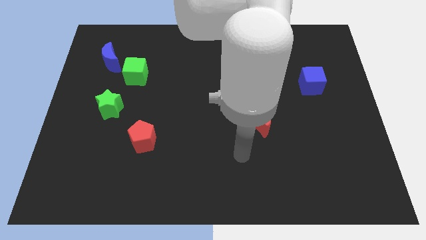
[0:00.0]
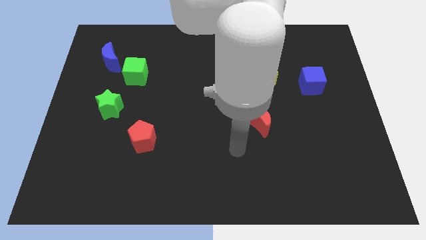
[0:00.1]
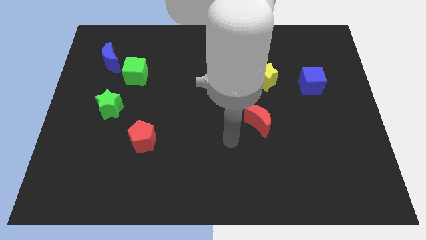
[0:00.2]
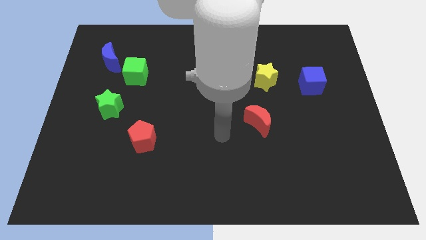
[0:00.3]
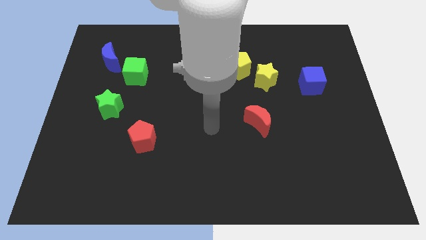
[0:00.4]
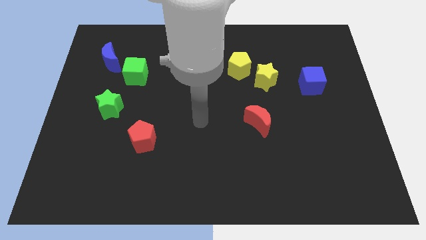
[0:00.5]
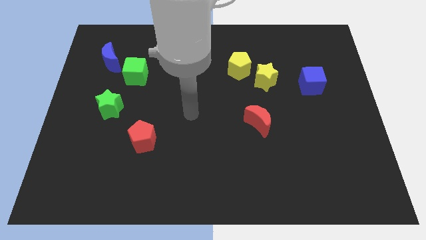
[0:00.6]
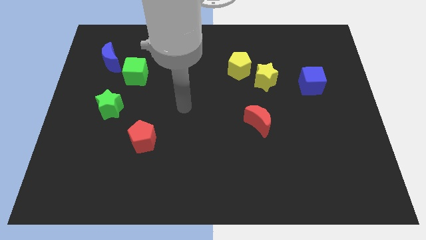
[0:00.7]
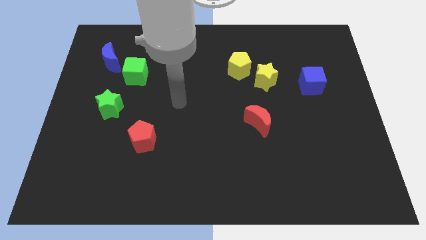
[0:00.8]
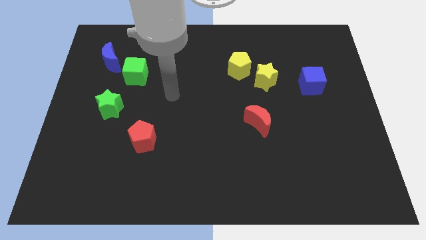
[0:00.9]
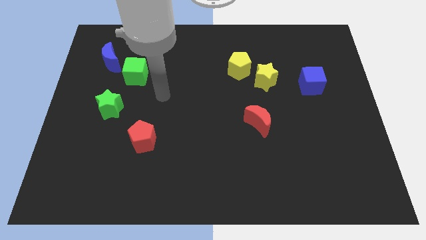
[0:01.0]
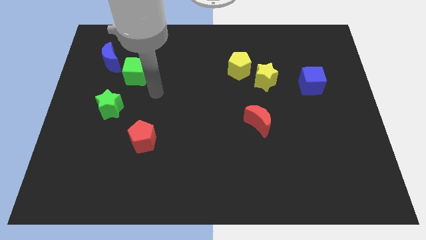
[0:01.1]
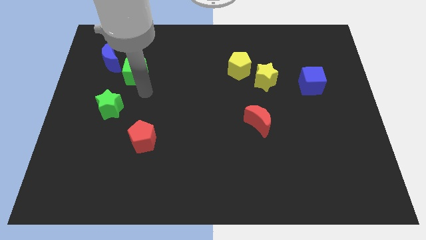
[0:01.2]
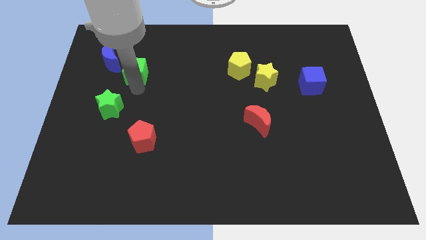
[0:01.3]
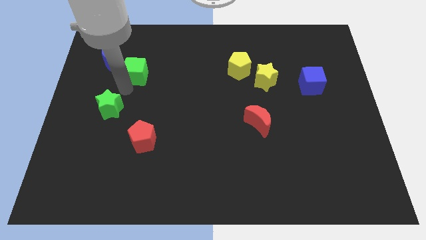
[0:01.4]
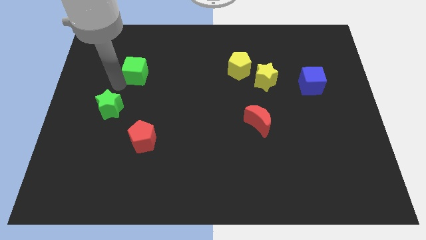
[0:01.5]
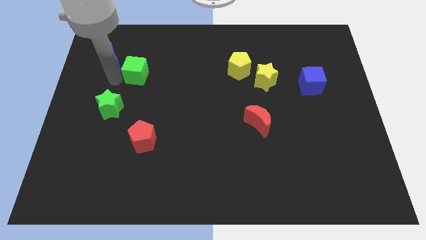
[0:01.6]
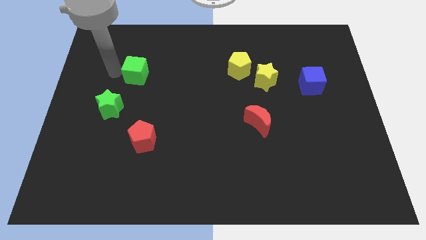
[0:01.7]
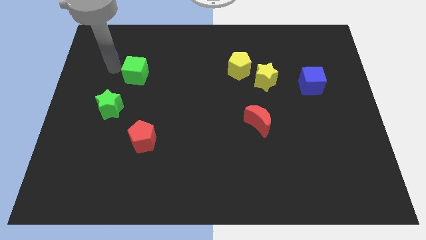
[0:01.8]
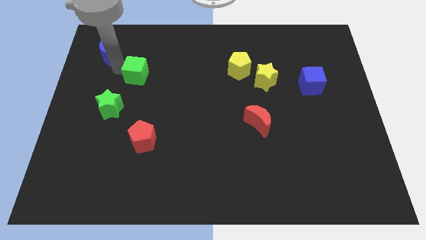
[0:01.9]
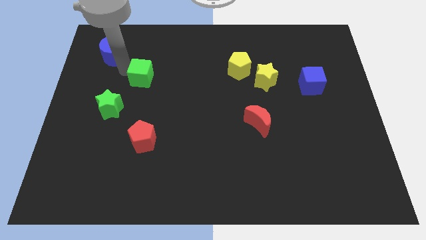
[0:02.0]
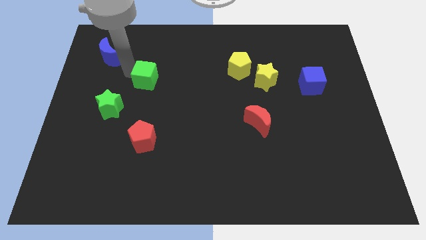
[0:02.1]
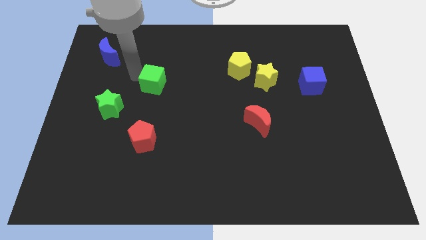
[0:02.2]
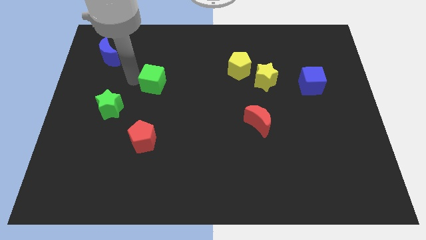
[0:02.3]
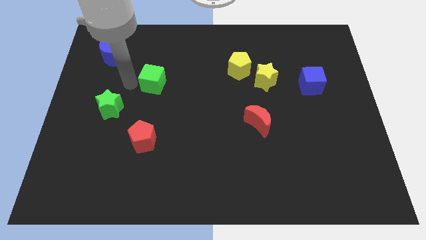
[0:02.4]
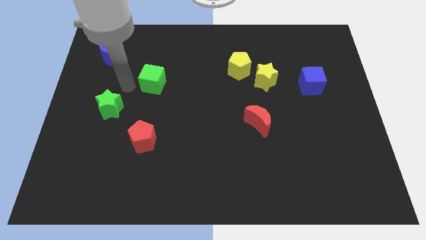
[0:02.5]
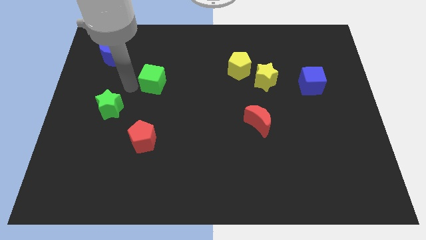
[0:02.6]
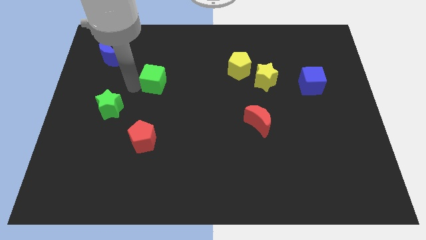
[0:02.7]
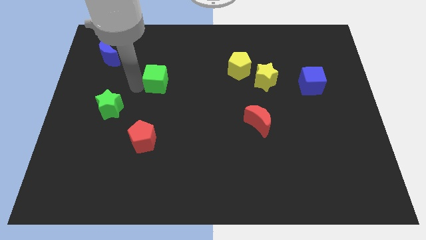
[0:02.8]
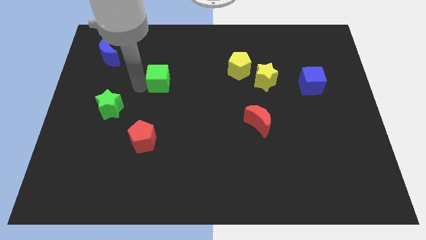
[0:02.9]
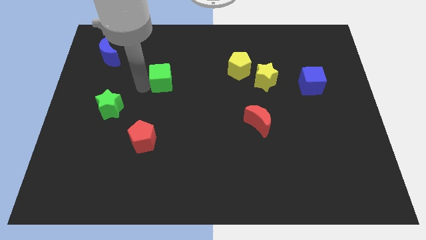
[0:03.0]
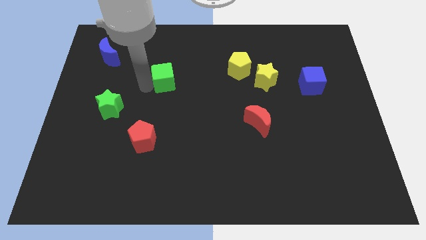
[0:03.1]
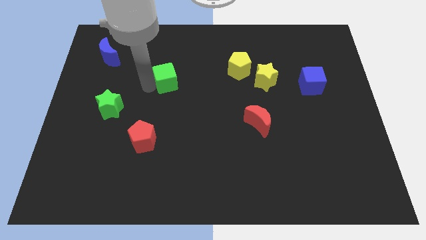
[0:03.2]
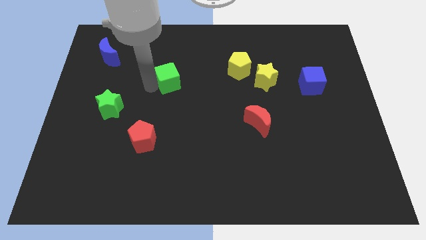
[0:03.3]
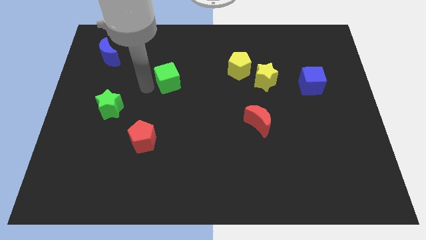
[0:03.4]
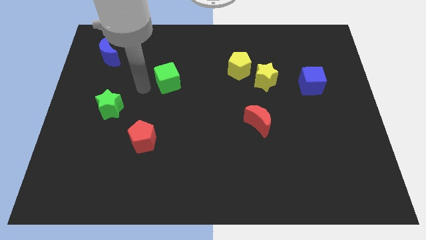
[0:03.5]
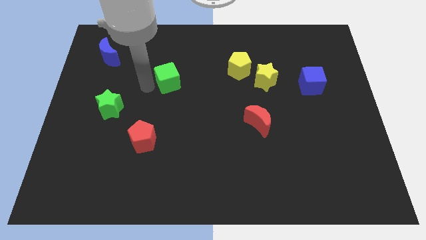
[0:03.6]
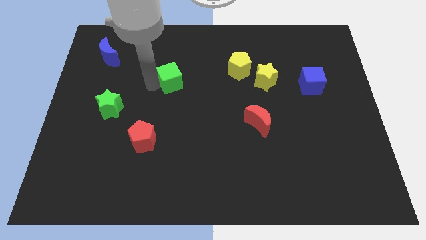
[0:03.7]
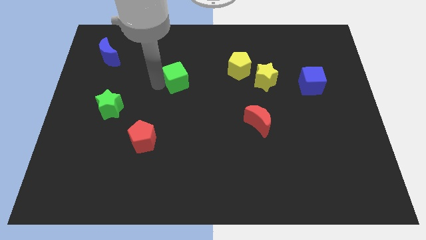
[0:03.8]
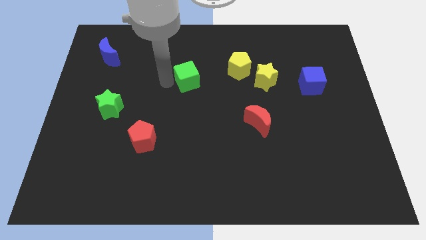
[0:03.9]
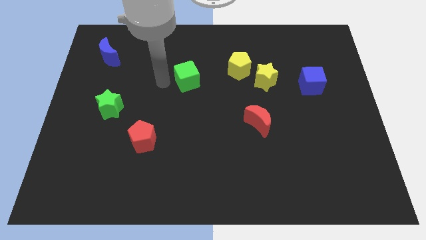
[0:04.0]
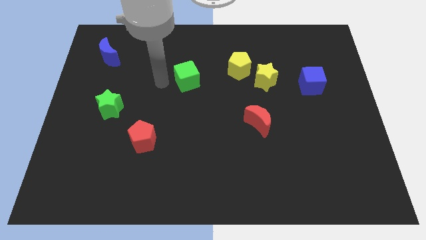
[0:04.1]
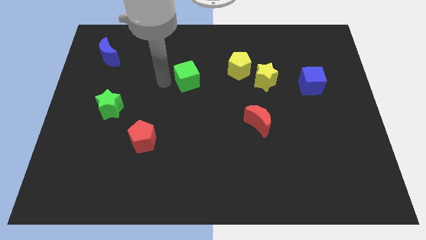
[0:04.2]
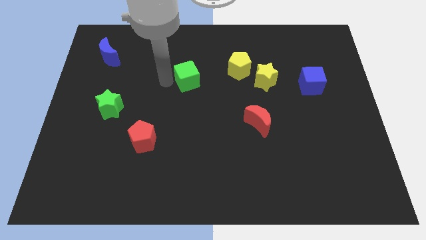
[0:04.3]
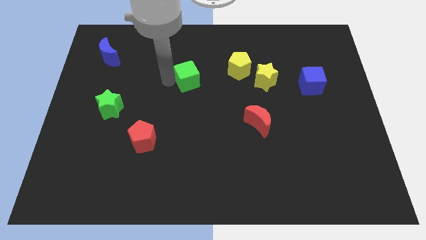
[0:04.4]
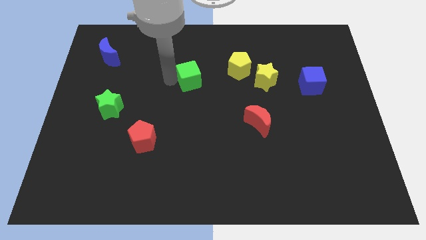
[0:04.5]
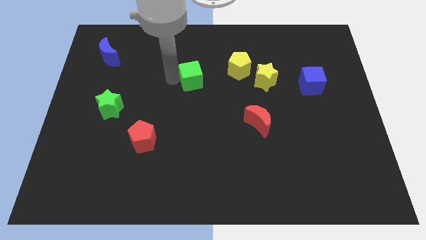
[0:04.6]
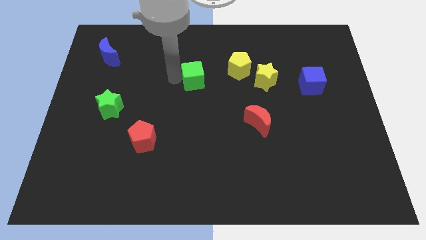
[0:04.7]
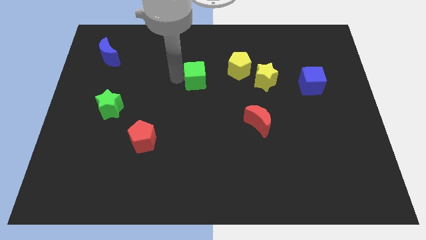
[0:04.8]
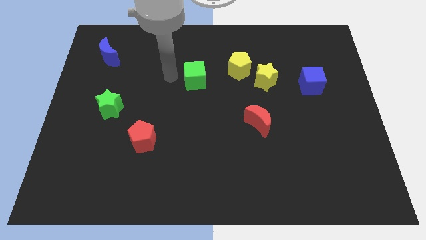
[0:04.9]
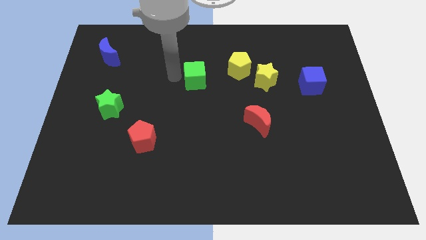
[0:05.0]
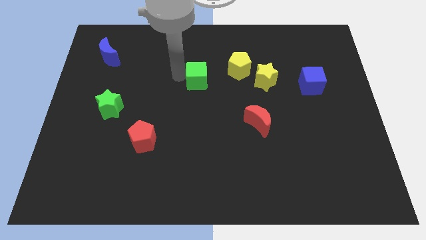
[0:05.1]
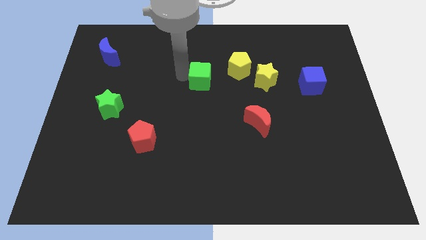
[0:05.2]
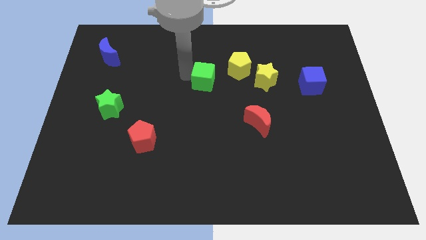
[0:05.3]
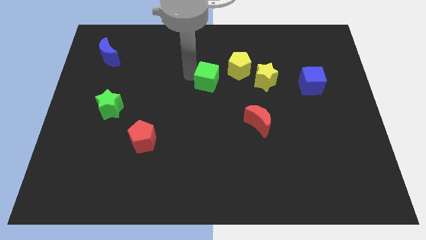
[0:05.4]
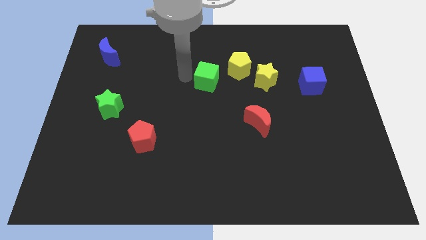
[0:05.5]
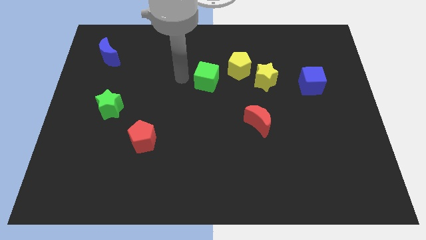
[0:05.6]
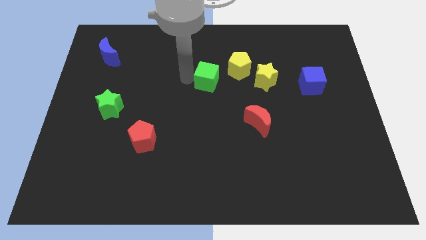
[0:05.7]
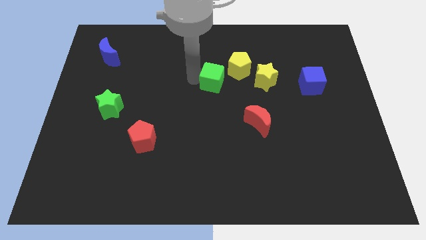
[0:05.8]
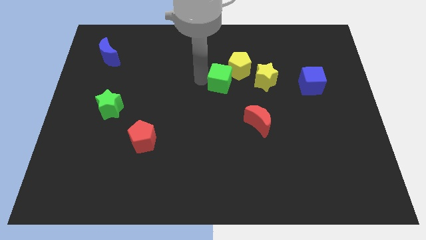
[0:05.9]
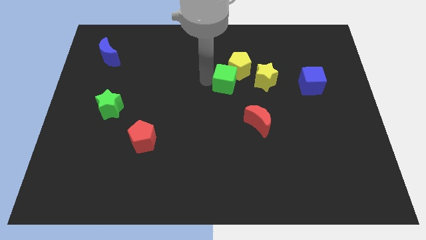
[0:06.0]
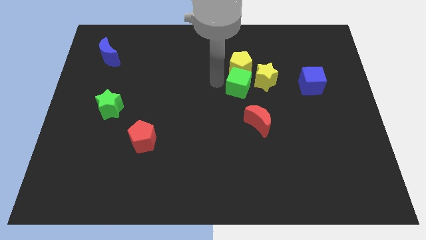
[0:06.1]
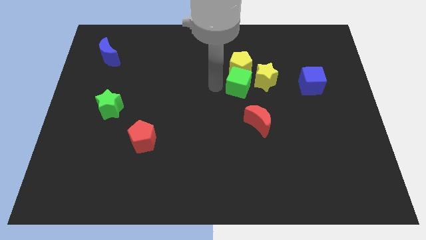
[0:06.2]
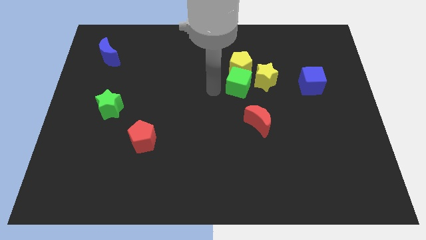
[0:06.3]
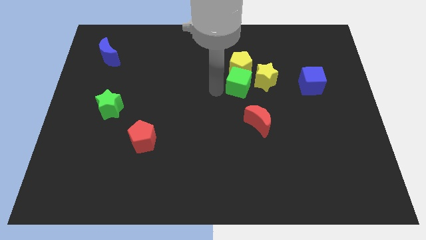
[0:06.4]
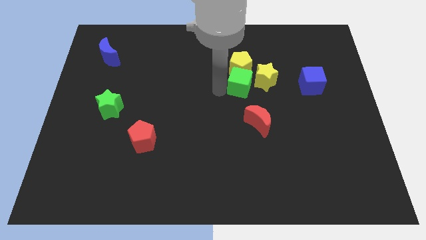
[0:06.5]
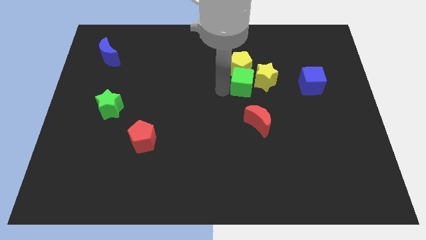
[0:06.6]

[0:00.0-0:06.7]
put the green cube towards the yellow star

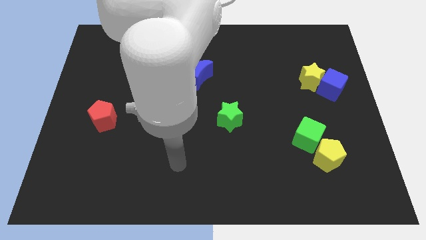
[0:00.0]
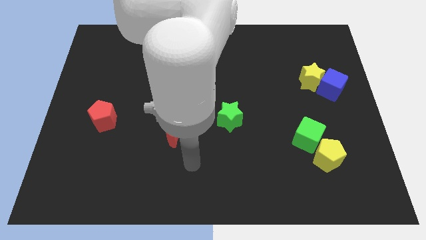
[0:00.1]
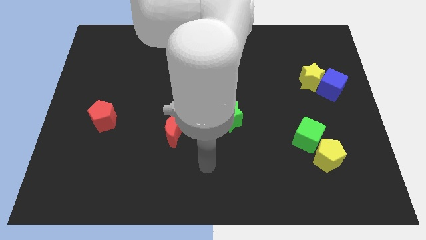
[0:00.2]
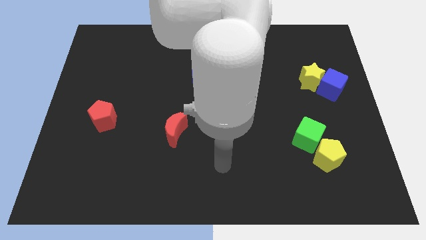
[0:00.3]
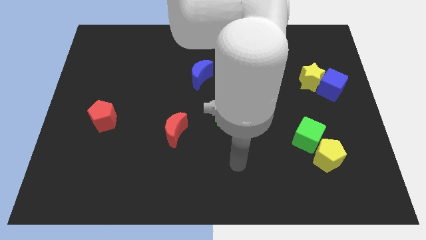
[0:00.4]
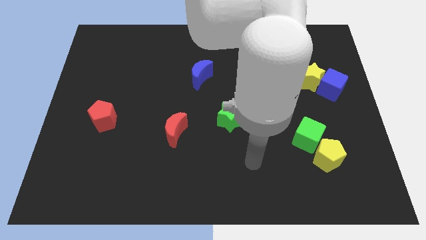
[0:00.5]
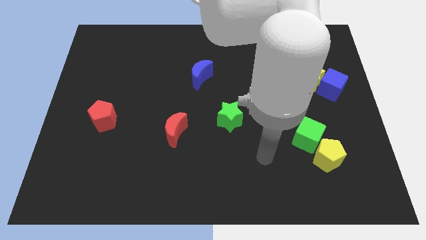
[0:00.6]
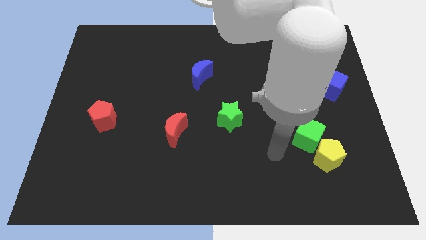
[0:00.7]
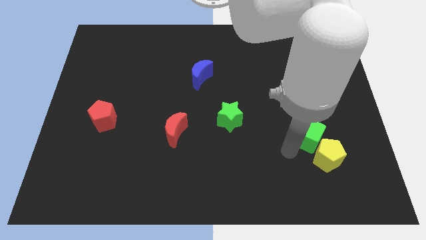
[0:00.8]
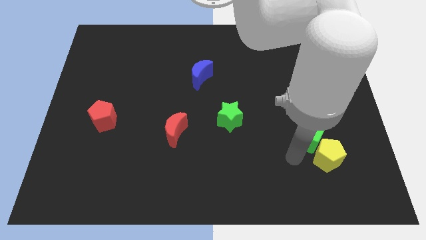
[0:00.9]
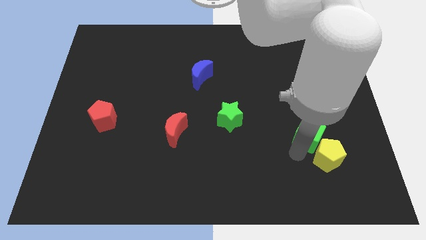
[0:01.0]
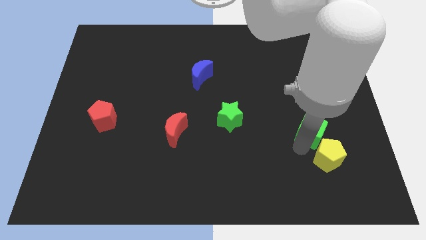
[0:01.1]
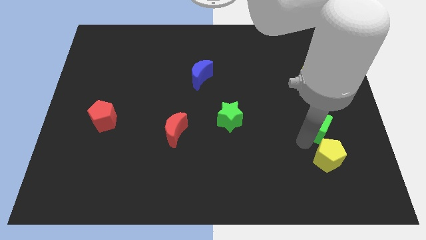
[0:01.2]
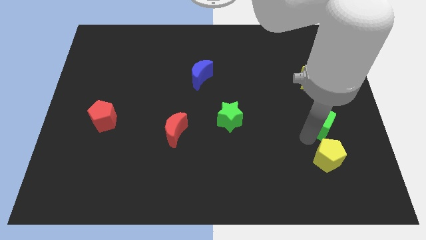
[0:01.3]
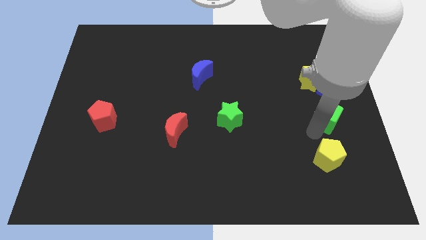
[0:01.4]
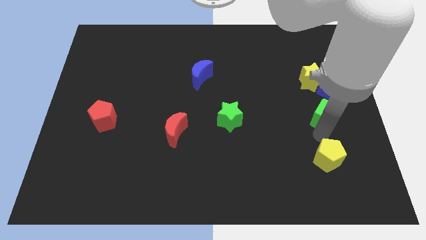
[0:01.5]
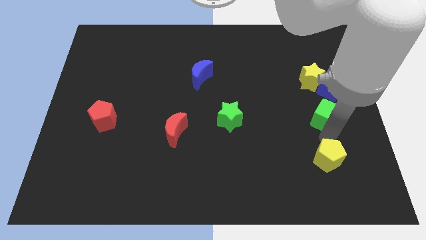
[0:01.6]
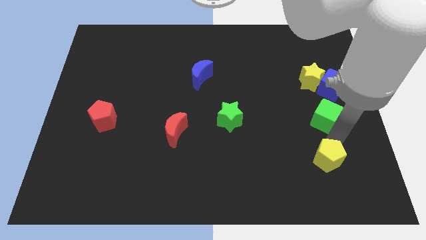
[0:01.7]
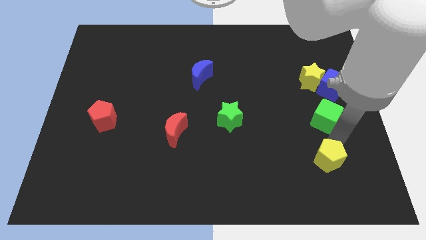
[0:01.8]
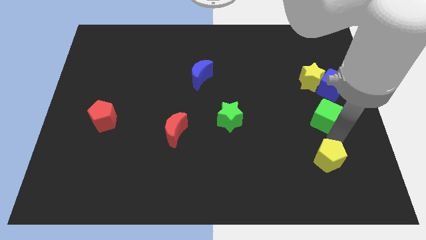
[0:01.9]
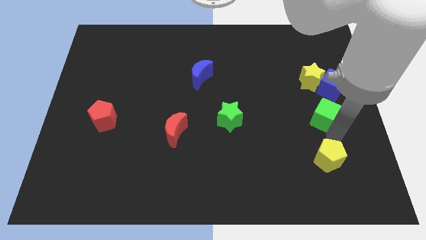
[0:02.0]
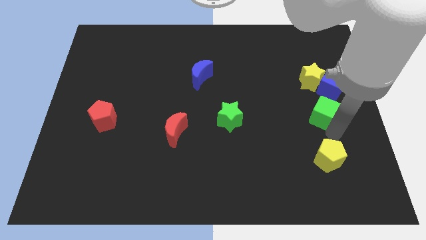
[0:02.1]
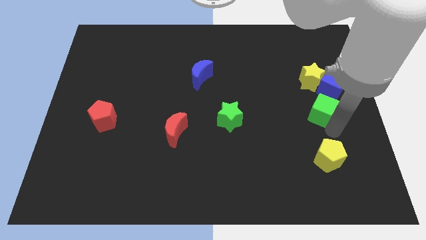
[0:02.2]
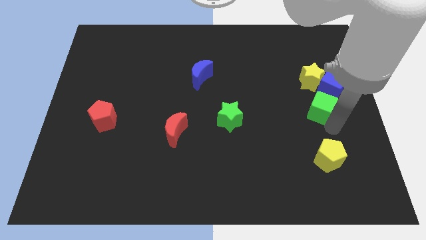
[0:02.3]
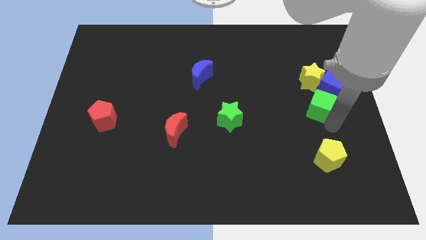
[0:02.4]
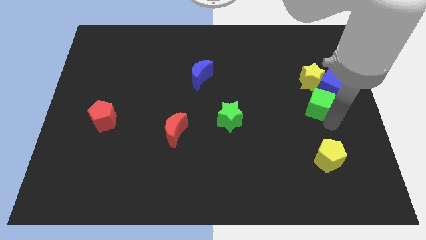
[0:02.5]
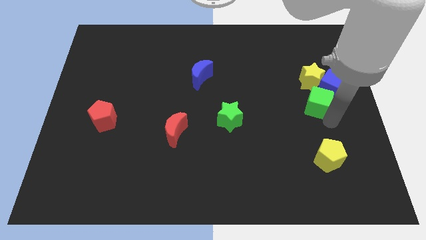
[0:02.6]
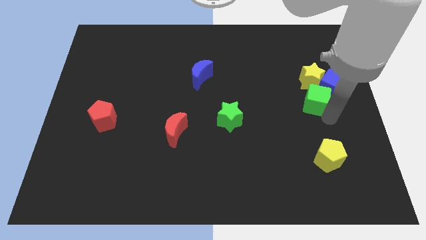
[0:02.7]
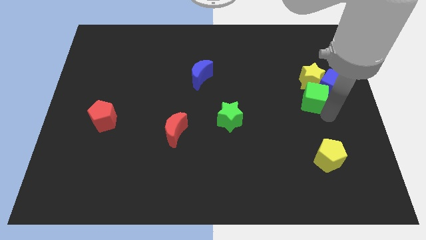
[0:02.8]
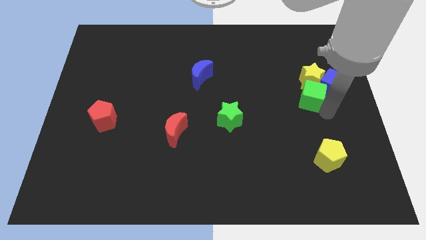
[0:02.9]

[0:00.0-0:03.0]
push the green cube to the yellow star
